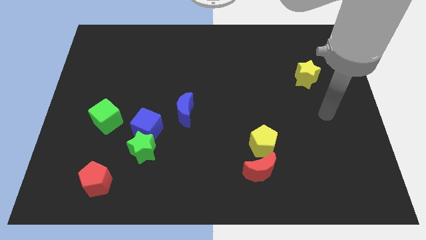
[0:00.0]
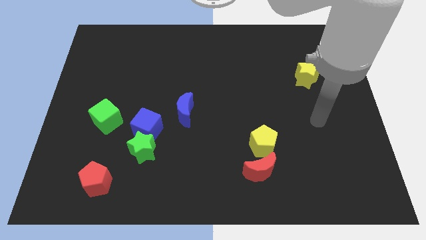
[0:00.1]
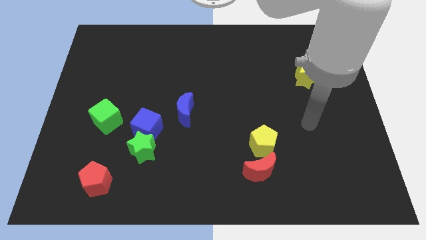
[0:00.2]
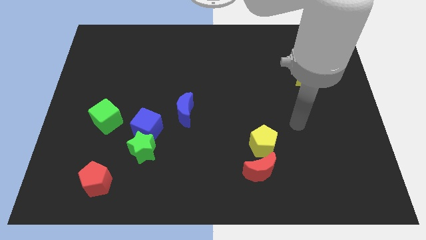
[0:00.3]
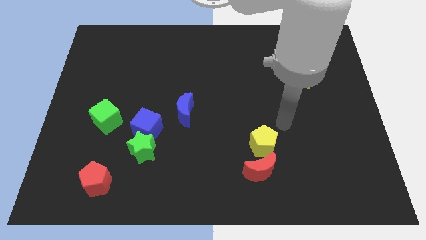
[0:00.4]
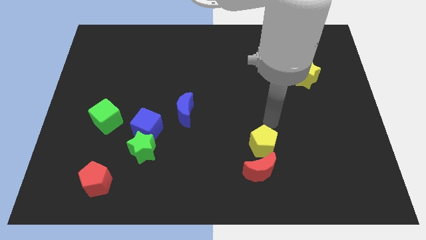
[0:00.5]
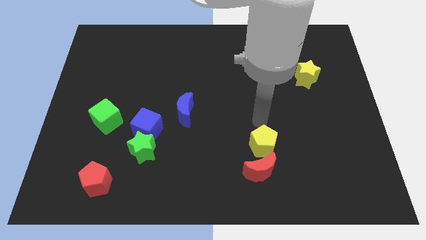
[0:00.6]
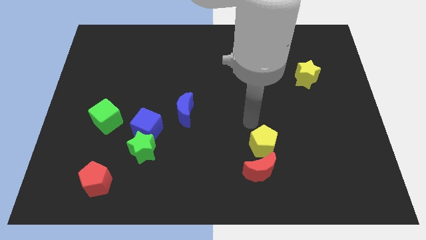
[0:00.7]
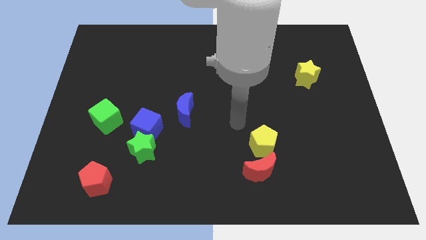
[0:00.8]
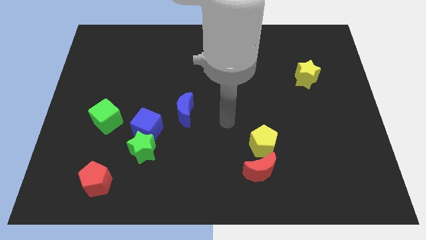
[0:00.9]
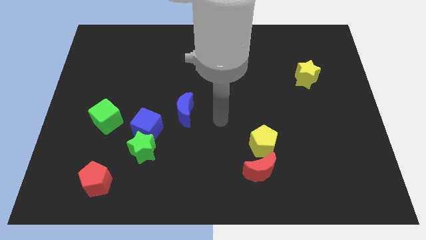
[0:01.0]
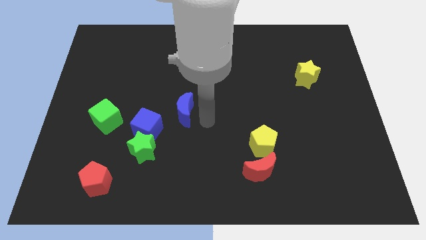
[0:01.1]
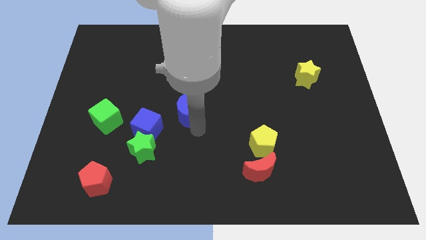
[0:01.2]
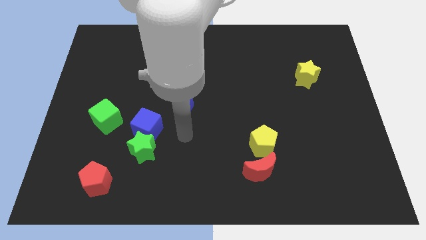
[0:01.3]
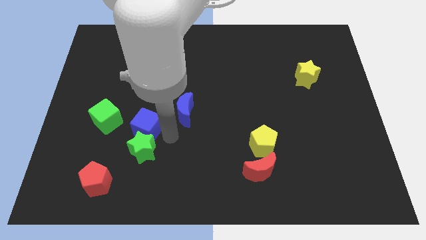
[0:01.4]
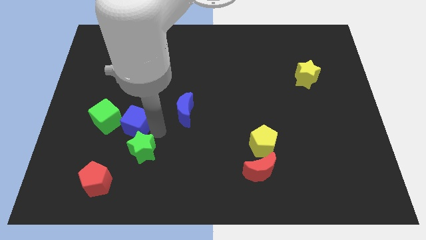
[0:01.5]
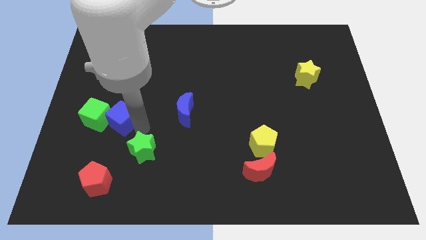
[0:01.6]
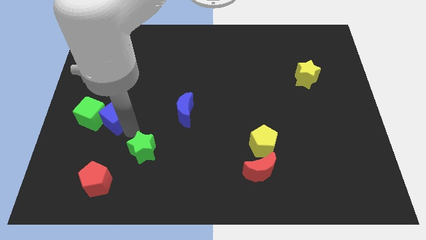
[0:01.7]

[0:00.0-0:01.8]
pull the green star apart from the blue cube

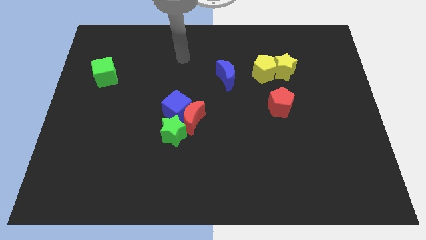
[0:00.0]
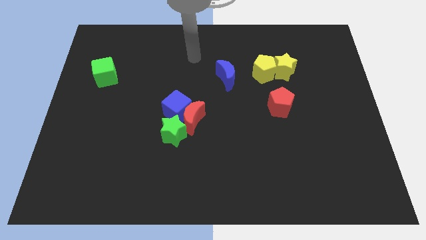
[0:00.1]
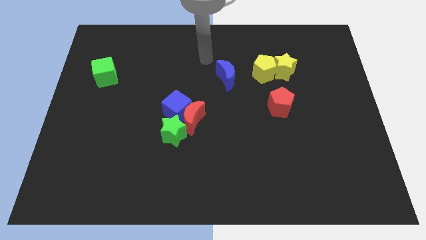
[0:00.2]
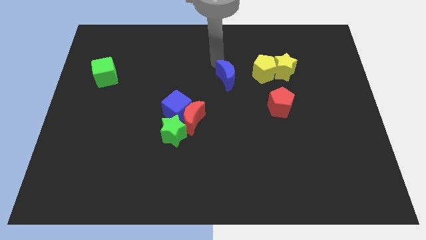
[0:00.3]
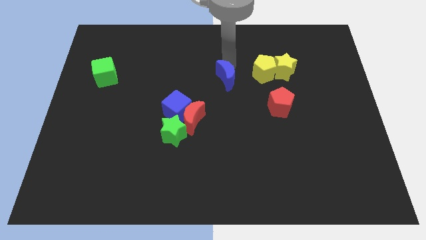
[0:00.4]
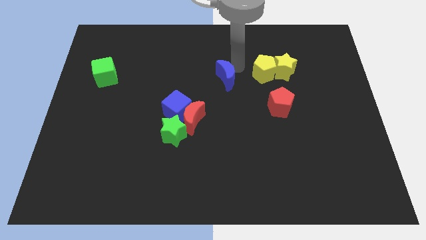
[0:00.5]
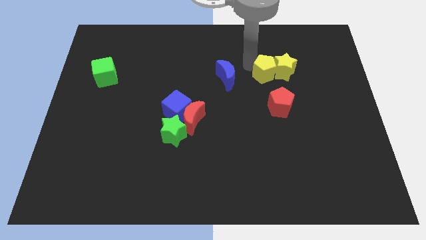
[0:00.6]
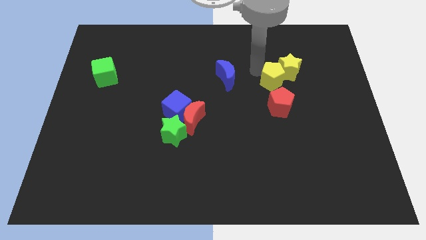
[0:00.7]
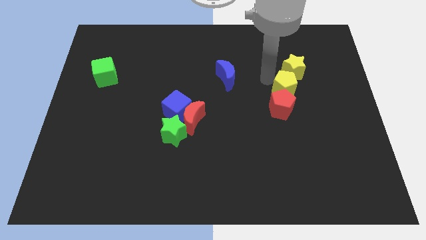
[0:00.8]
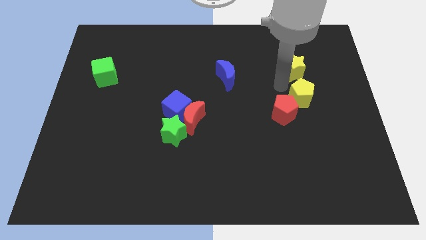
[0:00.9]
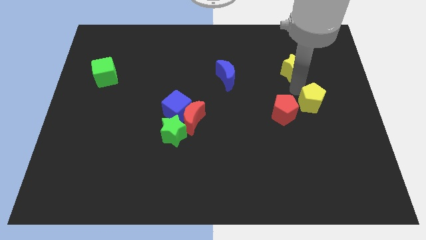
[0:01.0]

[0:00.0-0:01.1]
separate the yellow star from the yellow pentagon

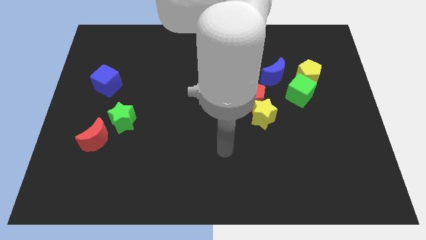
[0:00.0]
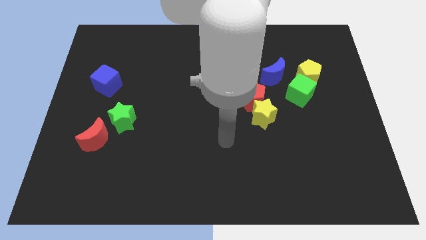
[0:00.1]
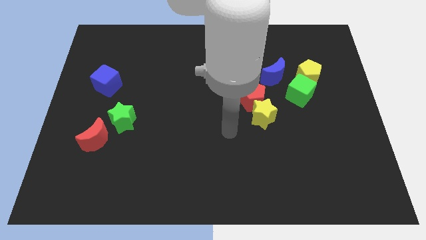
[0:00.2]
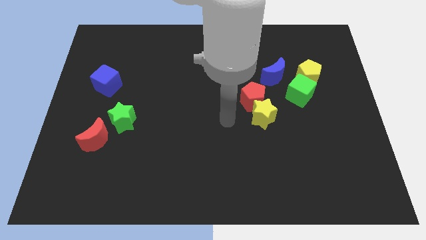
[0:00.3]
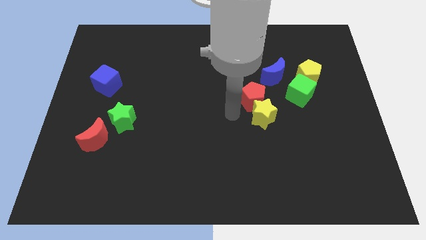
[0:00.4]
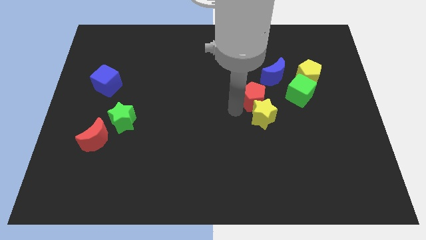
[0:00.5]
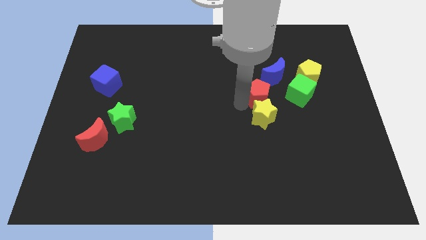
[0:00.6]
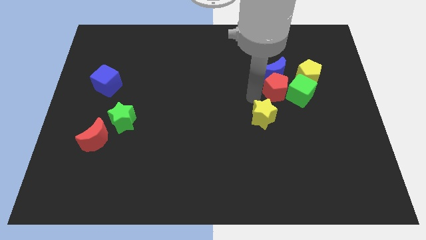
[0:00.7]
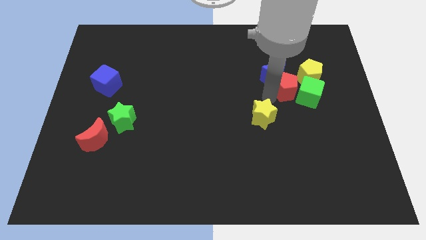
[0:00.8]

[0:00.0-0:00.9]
pull the yellow star apart from the red pentagon

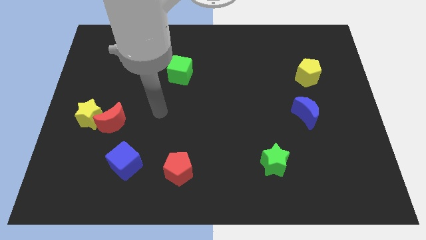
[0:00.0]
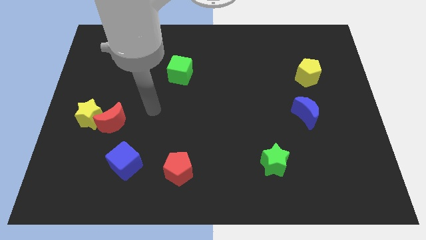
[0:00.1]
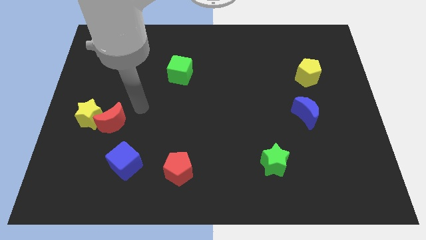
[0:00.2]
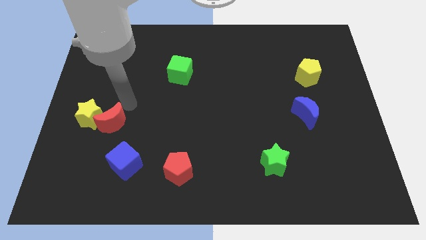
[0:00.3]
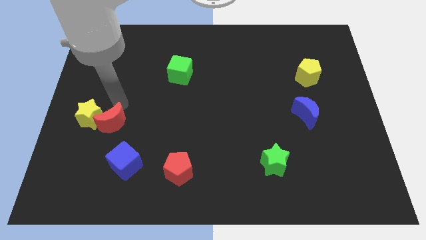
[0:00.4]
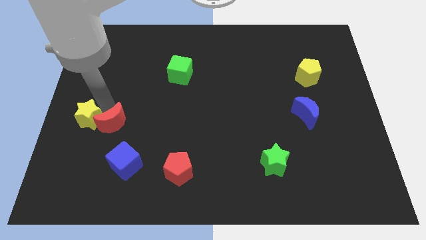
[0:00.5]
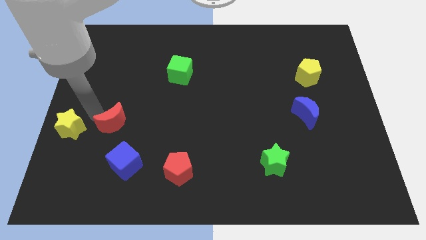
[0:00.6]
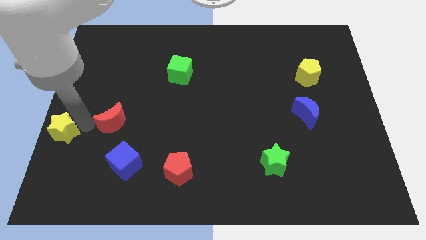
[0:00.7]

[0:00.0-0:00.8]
separate the red moon from the yellow star

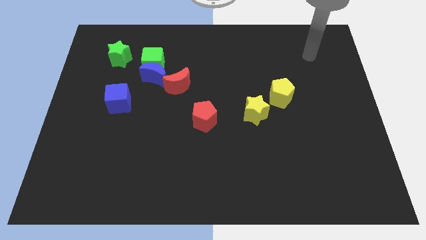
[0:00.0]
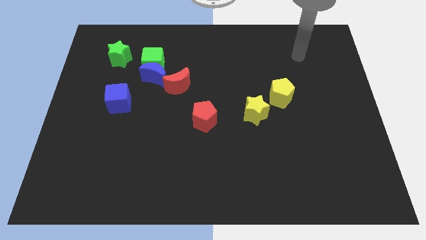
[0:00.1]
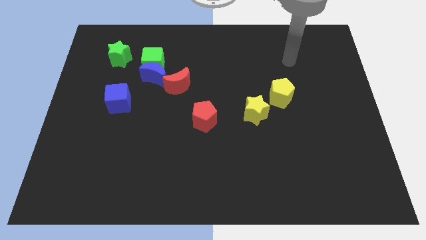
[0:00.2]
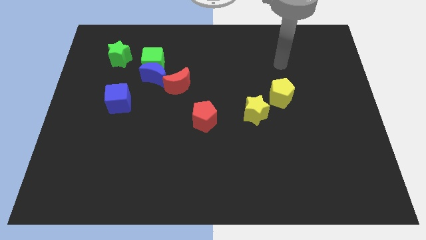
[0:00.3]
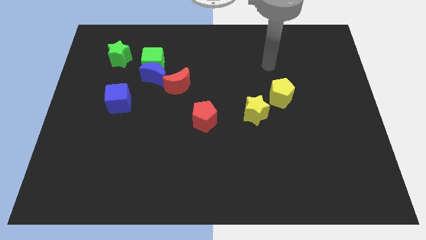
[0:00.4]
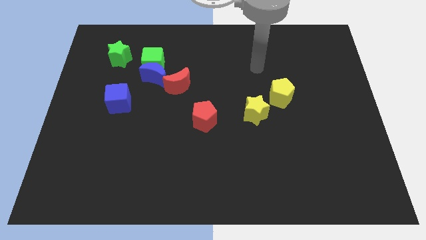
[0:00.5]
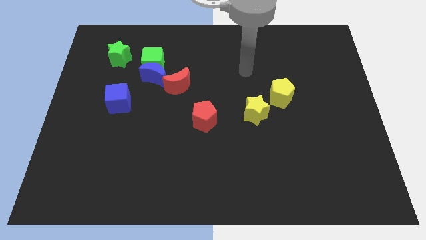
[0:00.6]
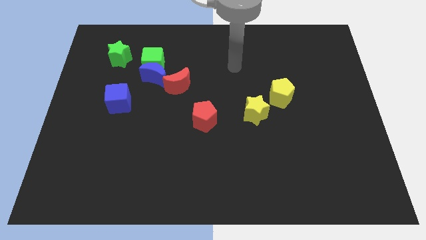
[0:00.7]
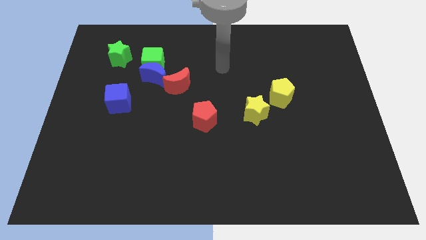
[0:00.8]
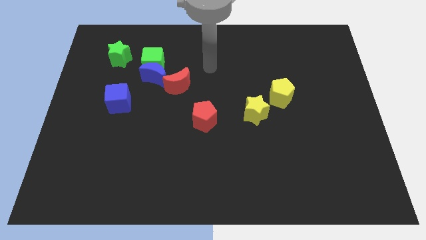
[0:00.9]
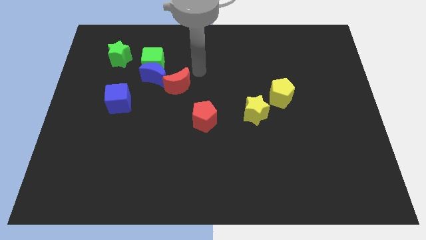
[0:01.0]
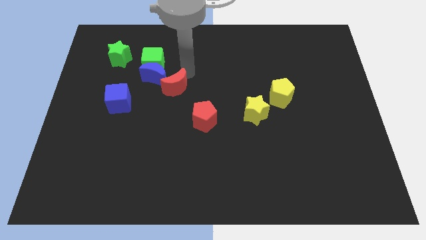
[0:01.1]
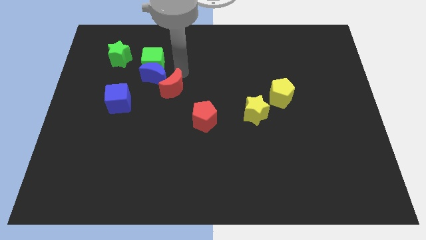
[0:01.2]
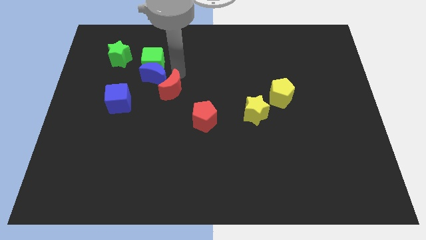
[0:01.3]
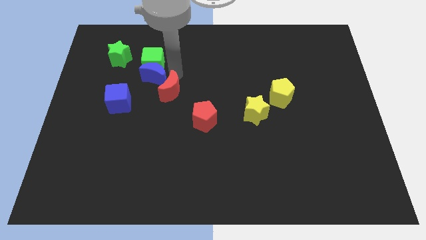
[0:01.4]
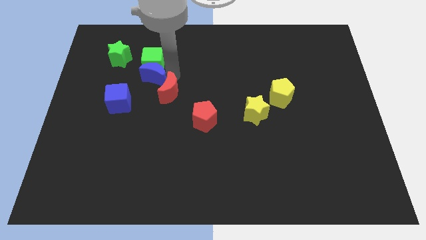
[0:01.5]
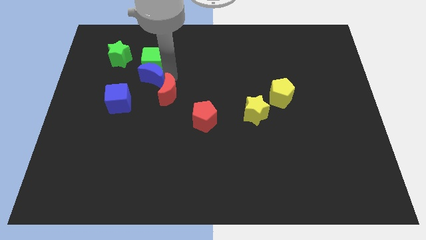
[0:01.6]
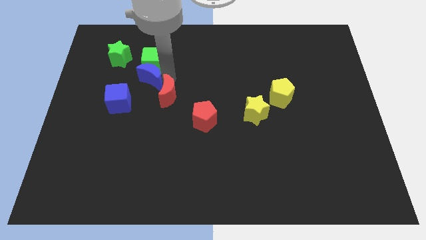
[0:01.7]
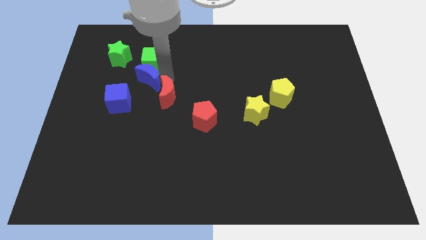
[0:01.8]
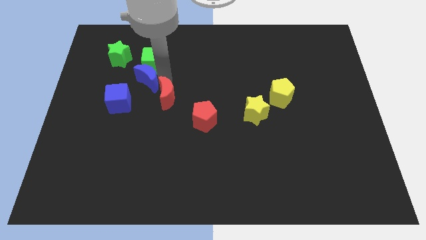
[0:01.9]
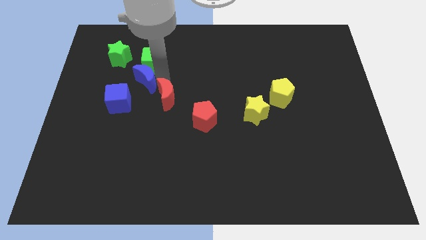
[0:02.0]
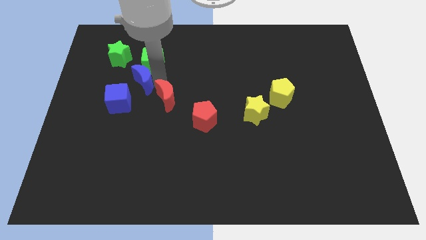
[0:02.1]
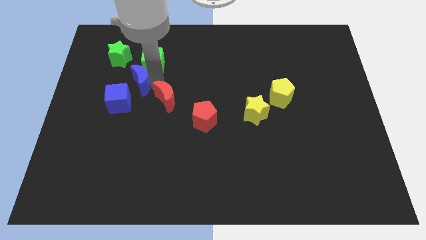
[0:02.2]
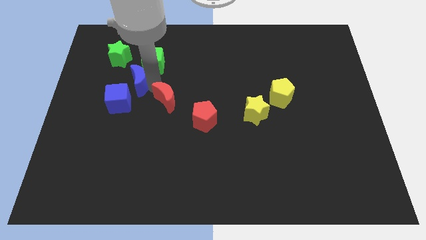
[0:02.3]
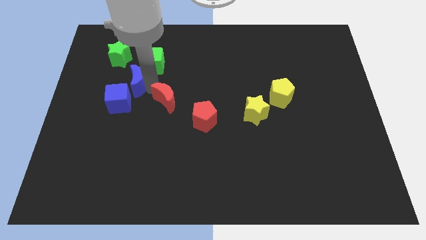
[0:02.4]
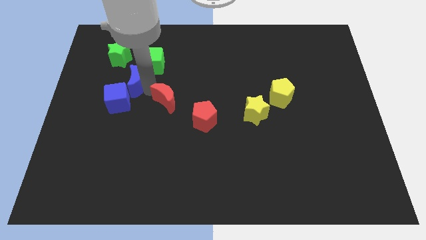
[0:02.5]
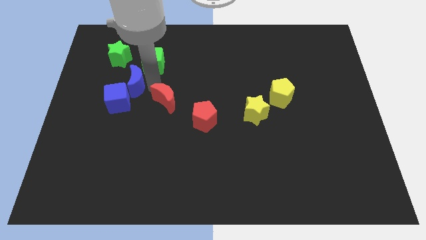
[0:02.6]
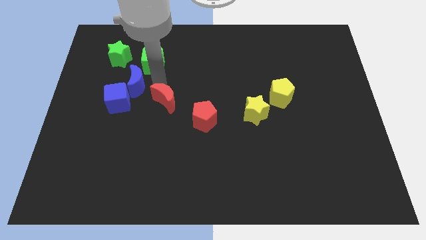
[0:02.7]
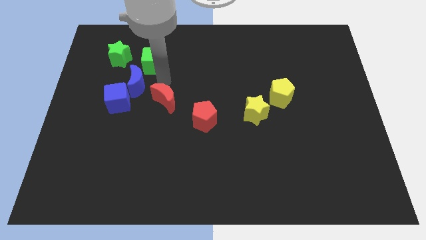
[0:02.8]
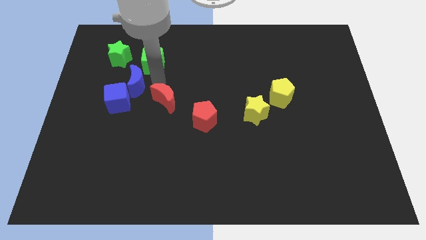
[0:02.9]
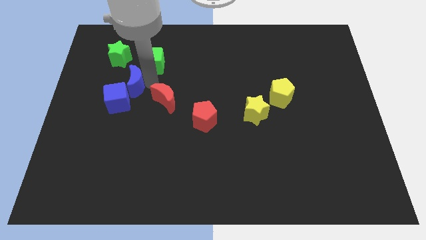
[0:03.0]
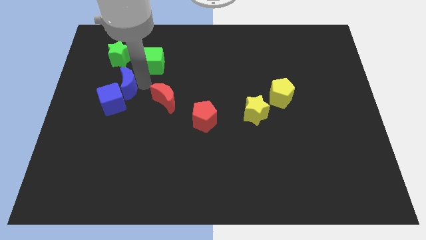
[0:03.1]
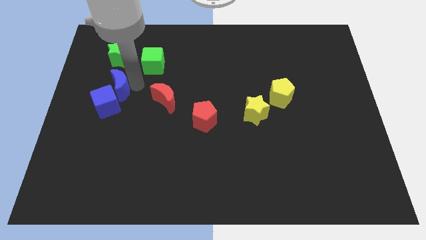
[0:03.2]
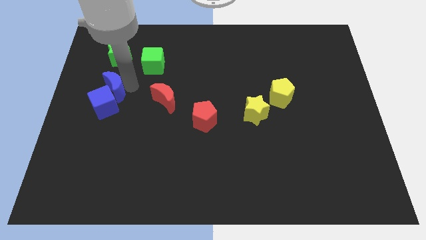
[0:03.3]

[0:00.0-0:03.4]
pull the blue moon apart from the green cube and red moon

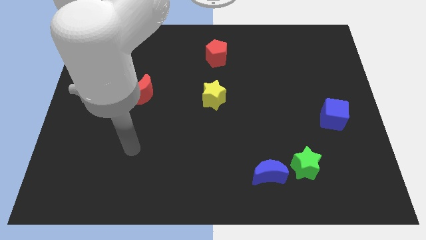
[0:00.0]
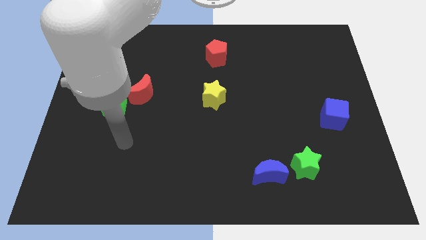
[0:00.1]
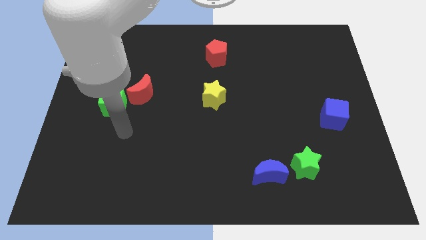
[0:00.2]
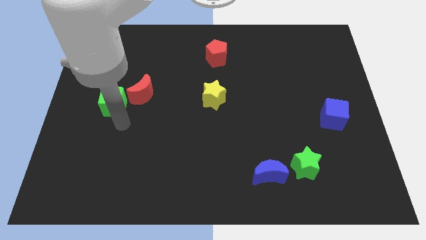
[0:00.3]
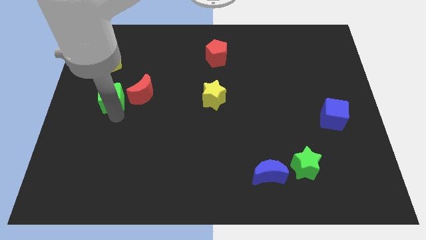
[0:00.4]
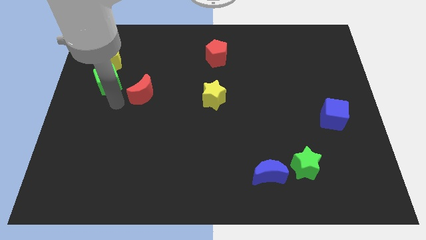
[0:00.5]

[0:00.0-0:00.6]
move the red moon away from the green cube

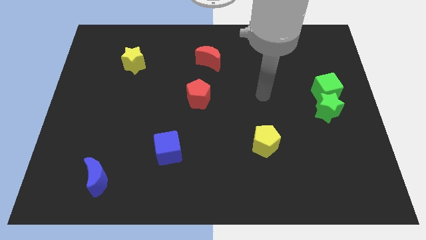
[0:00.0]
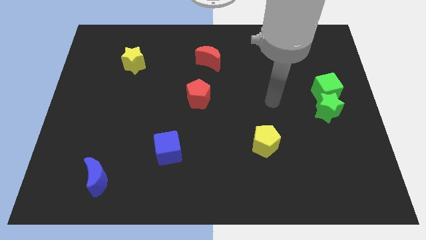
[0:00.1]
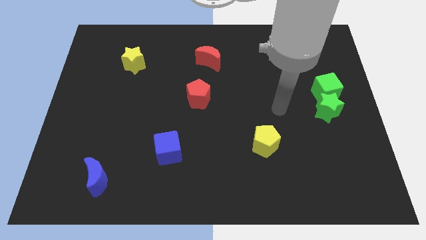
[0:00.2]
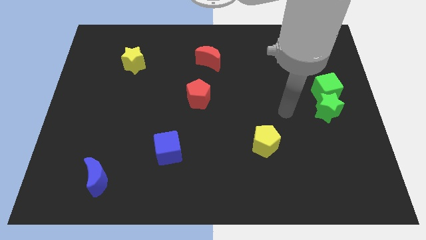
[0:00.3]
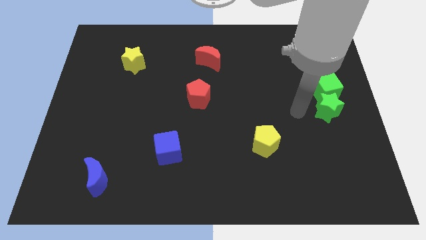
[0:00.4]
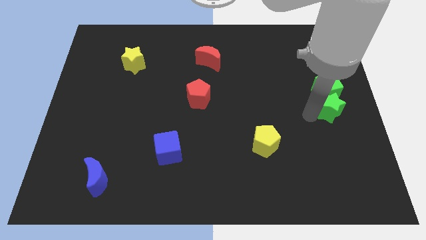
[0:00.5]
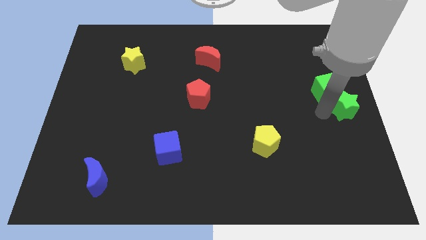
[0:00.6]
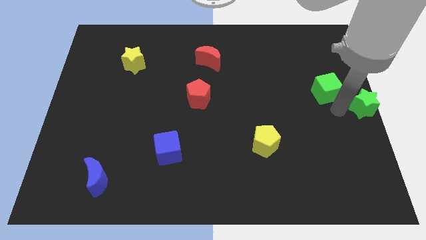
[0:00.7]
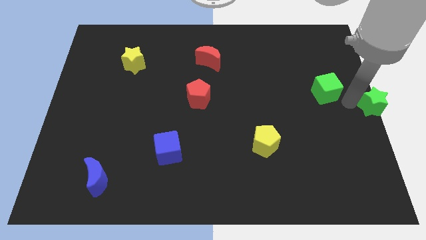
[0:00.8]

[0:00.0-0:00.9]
separate the green cube from the green star
